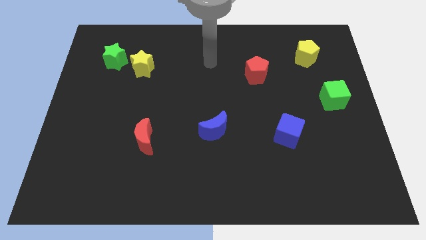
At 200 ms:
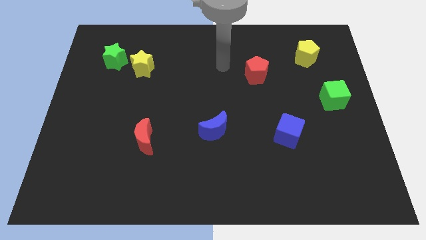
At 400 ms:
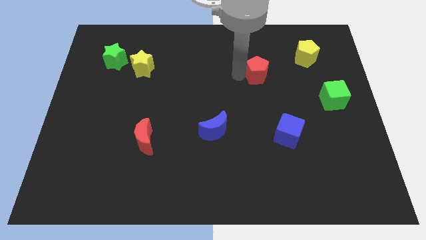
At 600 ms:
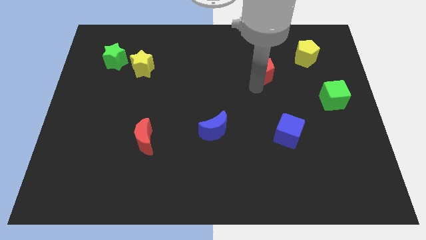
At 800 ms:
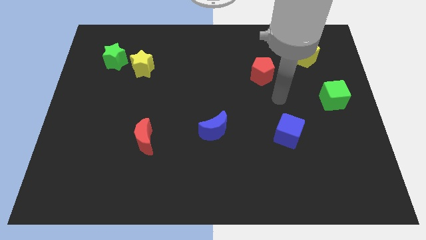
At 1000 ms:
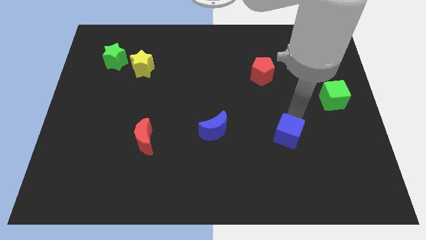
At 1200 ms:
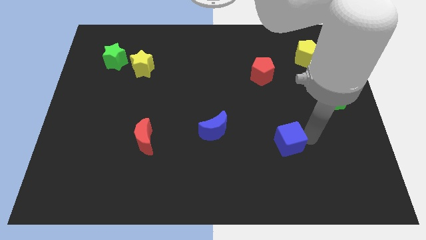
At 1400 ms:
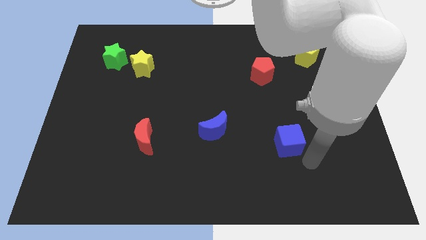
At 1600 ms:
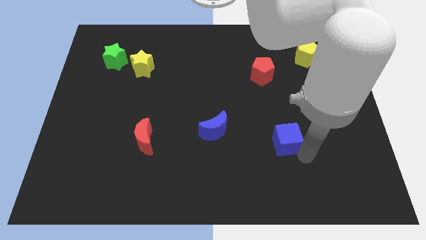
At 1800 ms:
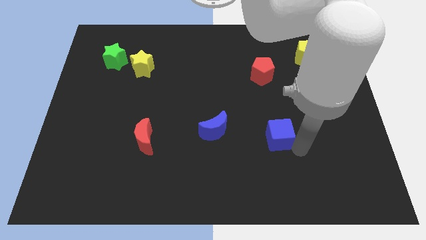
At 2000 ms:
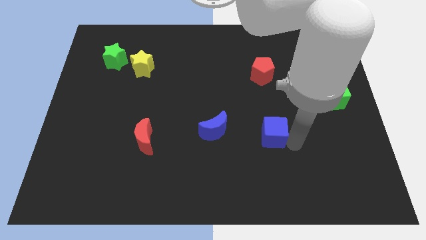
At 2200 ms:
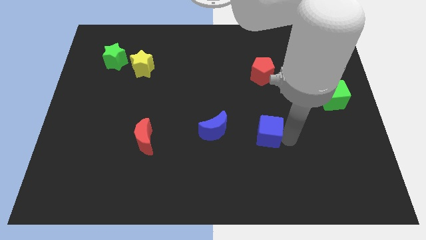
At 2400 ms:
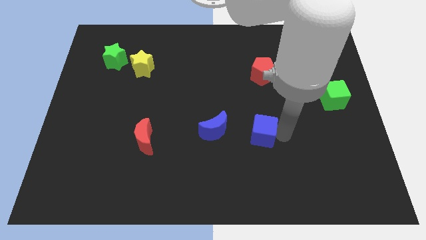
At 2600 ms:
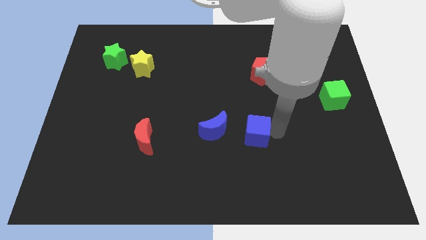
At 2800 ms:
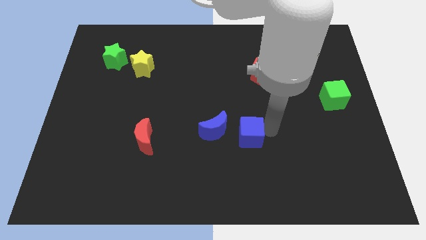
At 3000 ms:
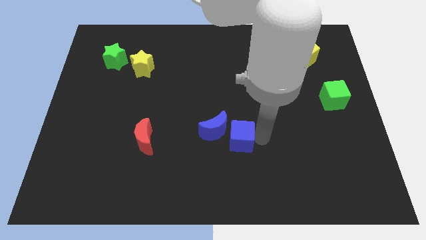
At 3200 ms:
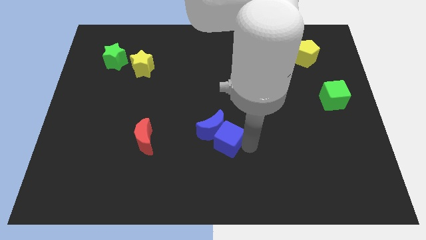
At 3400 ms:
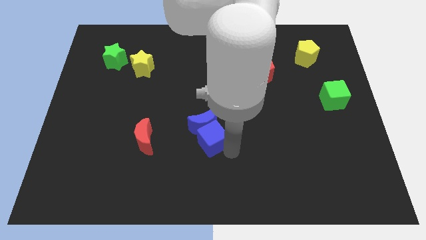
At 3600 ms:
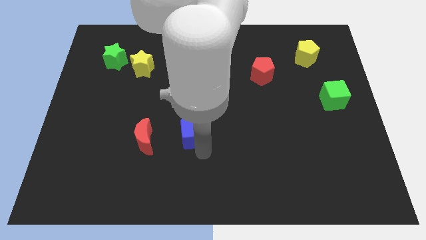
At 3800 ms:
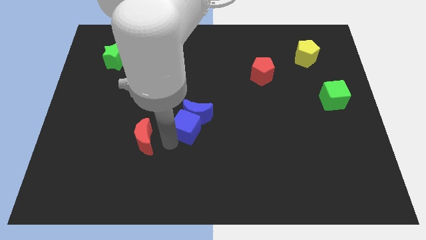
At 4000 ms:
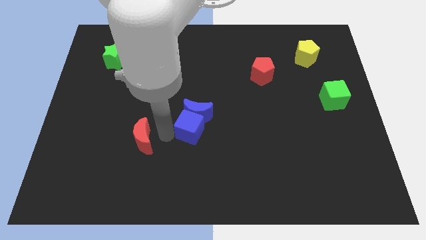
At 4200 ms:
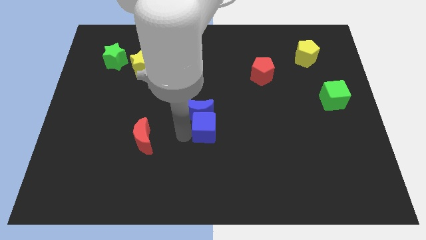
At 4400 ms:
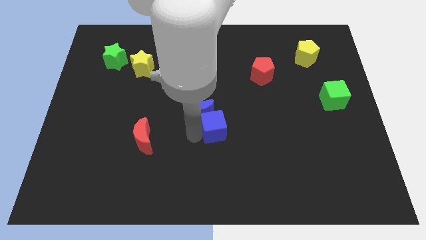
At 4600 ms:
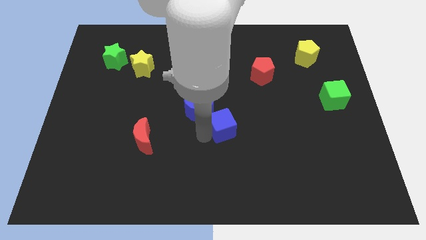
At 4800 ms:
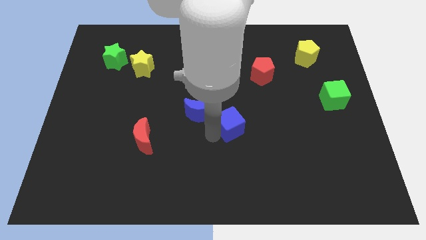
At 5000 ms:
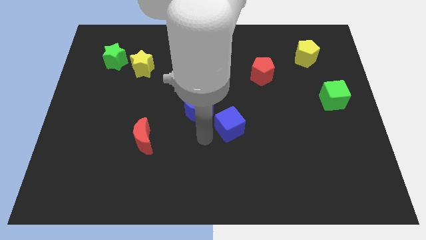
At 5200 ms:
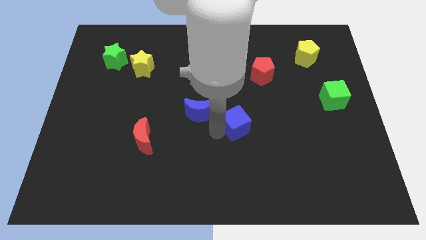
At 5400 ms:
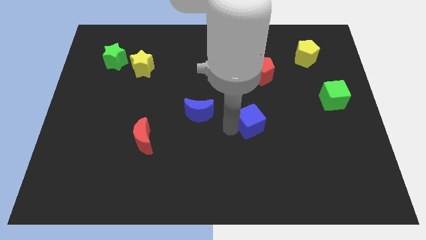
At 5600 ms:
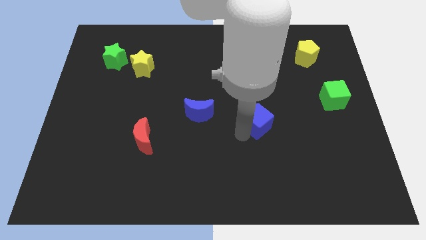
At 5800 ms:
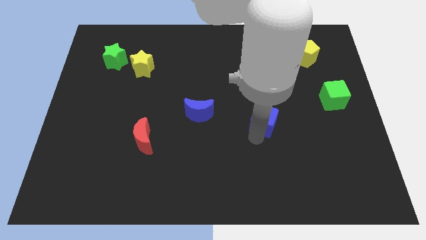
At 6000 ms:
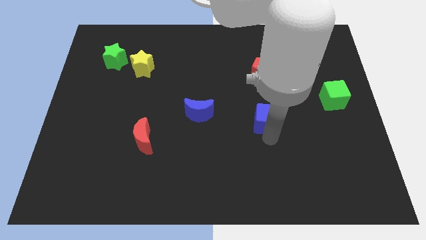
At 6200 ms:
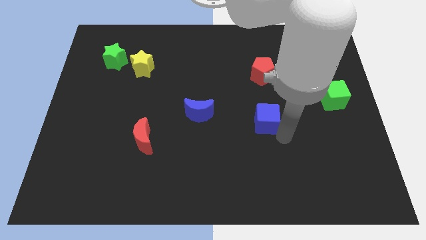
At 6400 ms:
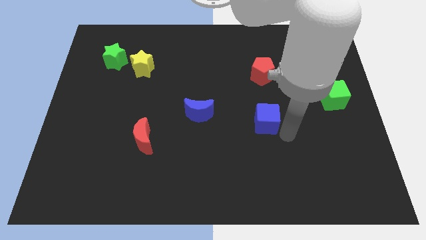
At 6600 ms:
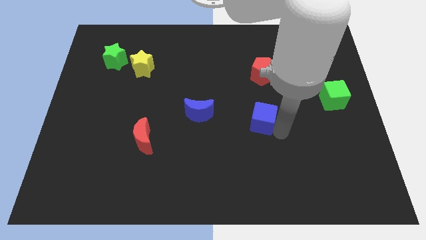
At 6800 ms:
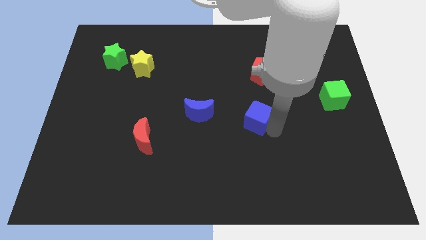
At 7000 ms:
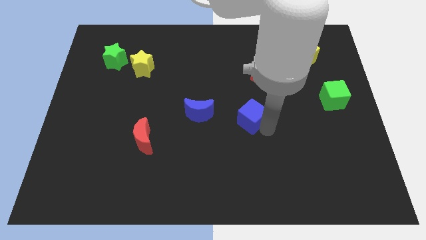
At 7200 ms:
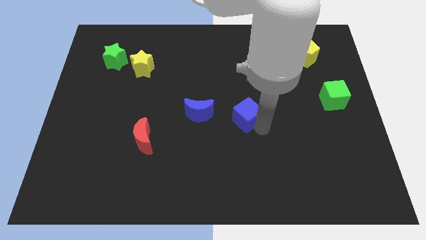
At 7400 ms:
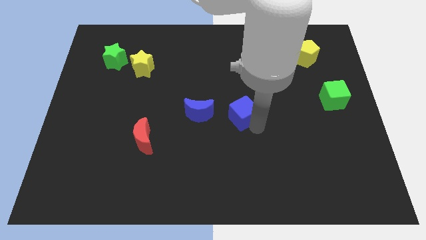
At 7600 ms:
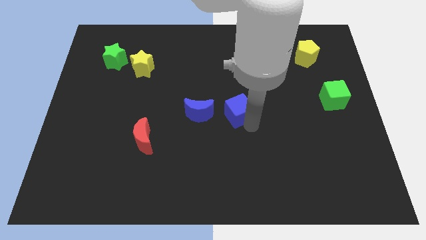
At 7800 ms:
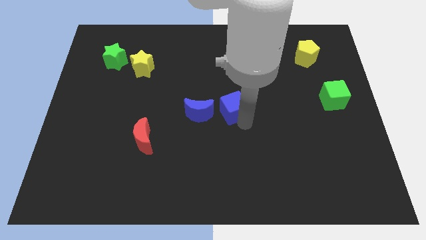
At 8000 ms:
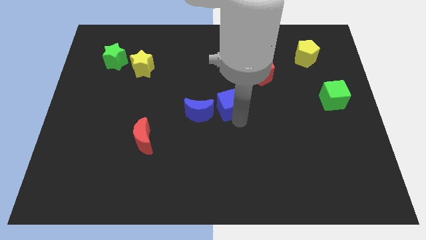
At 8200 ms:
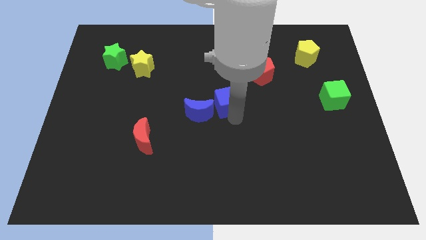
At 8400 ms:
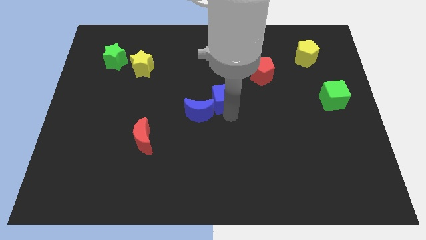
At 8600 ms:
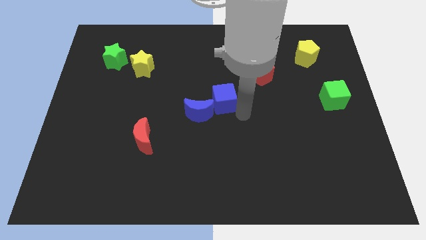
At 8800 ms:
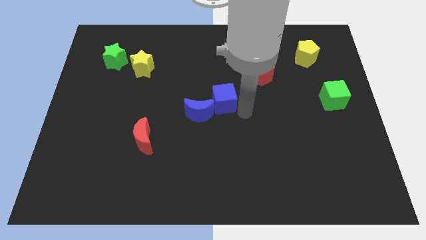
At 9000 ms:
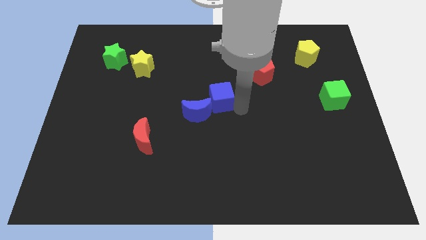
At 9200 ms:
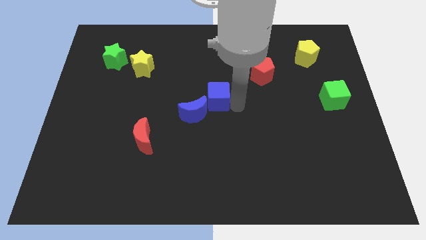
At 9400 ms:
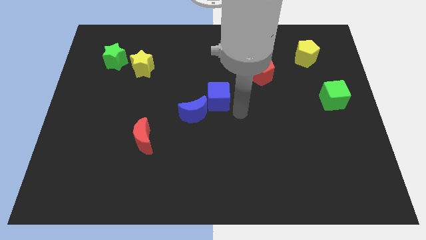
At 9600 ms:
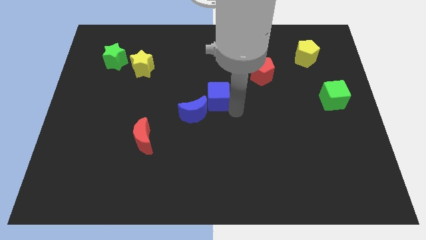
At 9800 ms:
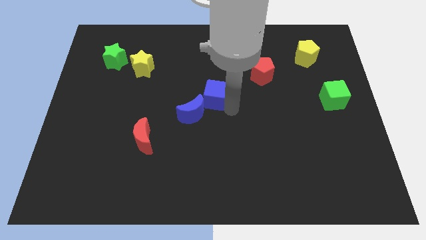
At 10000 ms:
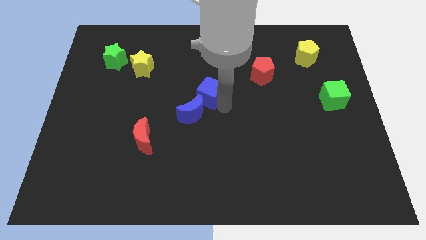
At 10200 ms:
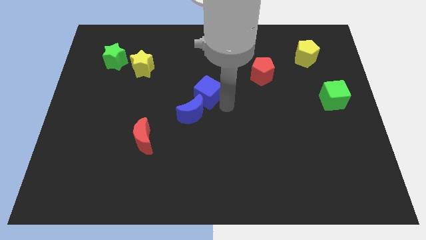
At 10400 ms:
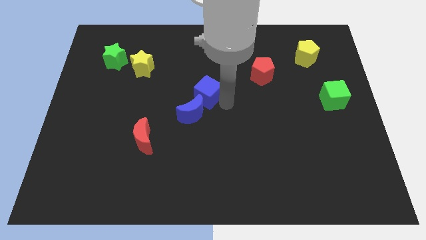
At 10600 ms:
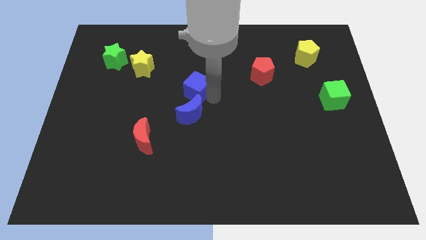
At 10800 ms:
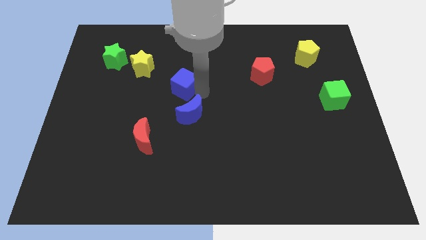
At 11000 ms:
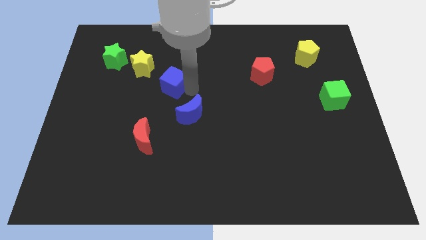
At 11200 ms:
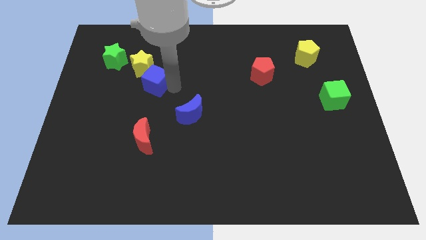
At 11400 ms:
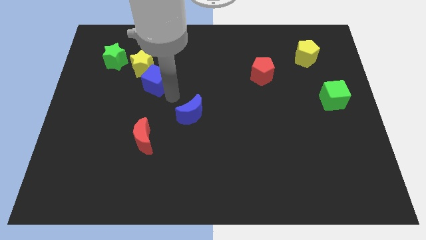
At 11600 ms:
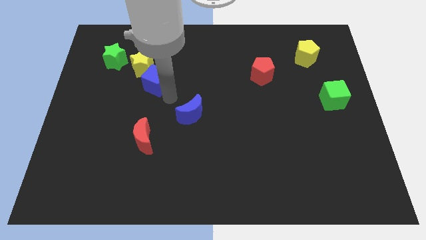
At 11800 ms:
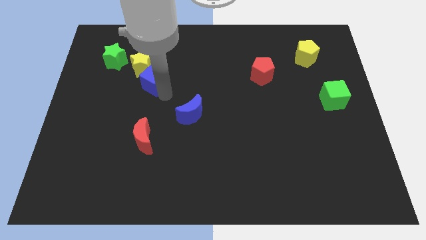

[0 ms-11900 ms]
slide the blue cube towards the yellow star
